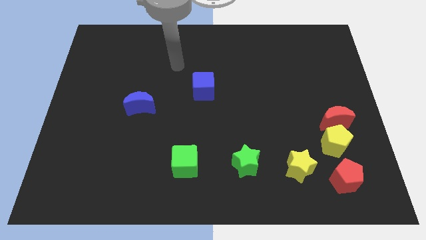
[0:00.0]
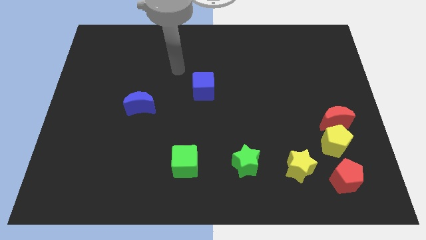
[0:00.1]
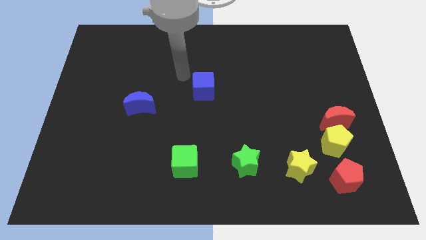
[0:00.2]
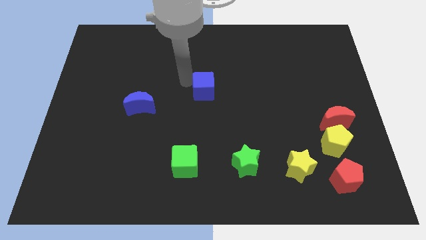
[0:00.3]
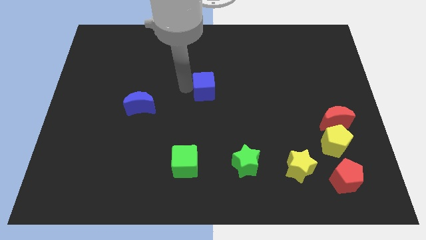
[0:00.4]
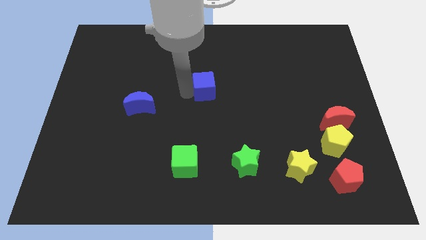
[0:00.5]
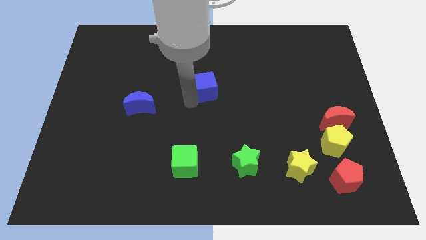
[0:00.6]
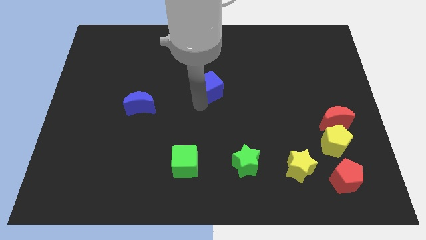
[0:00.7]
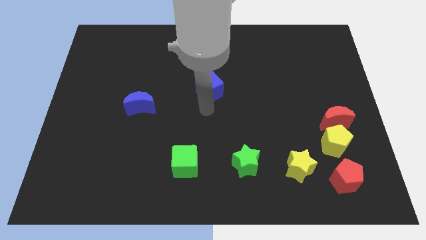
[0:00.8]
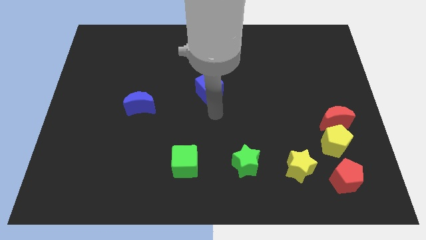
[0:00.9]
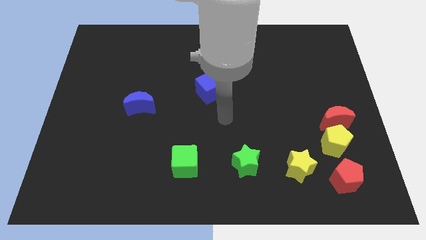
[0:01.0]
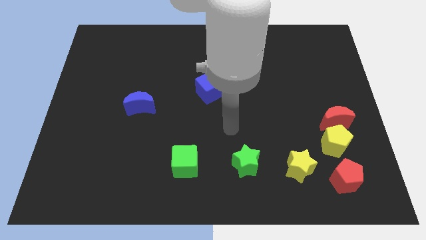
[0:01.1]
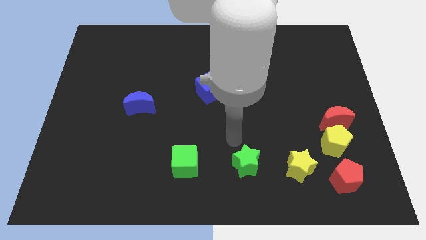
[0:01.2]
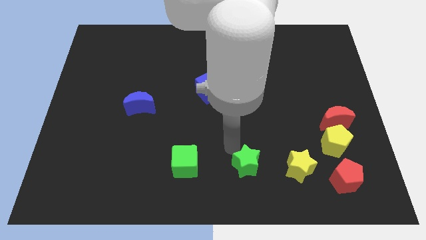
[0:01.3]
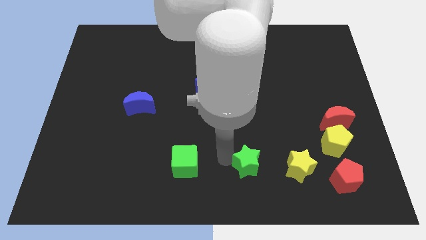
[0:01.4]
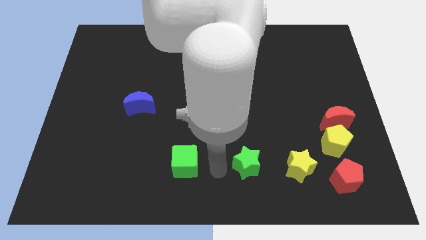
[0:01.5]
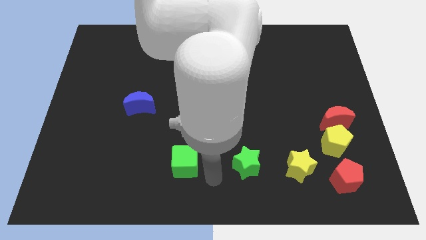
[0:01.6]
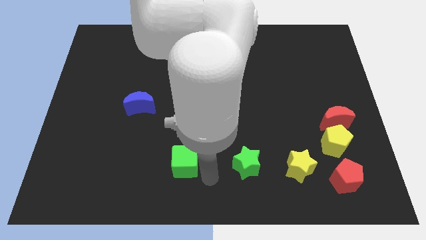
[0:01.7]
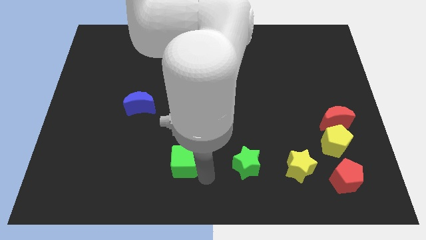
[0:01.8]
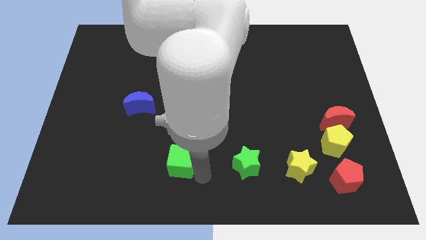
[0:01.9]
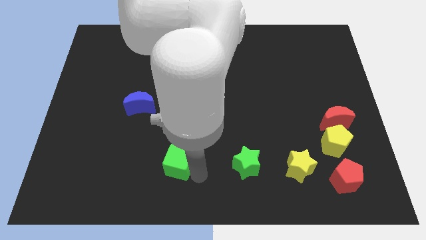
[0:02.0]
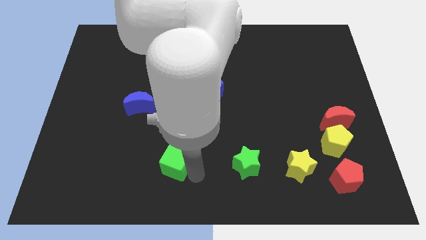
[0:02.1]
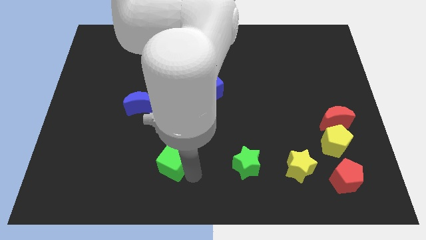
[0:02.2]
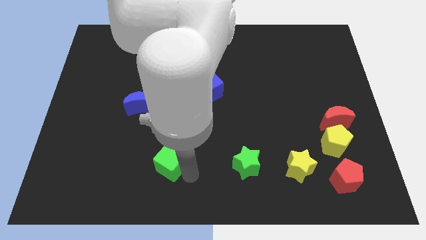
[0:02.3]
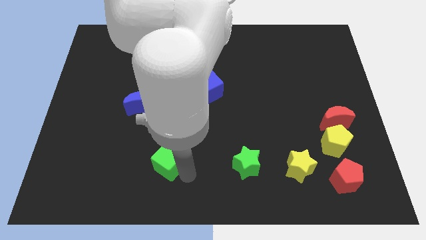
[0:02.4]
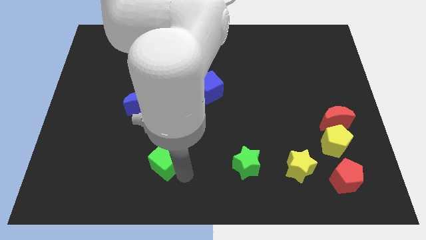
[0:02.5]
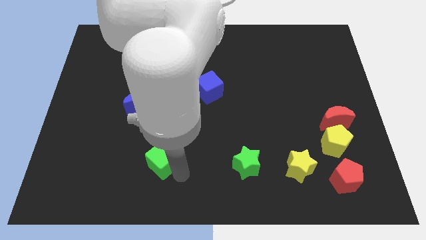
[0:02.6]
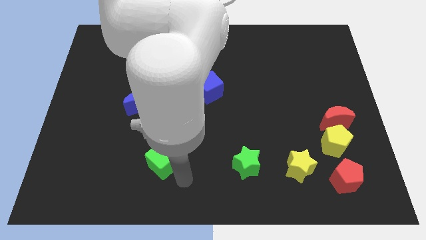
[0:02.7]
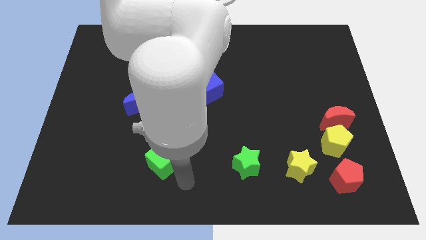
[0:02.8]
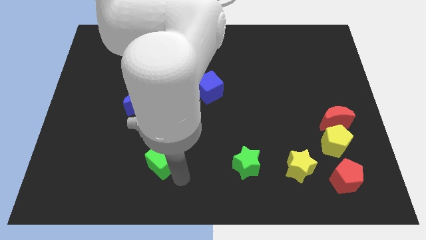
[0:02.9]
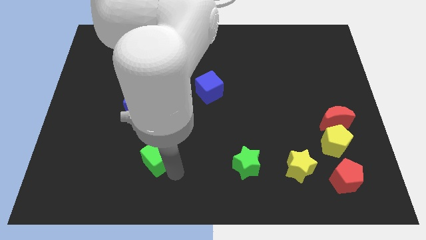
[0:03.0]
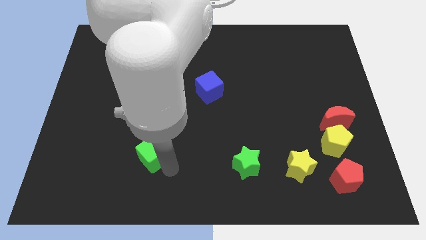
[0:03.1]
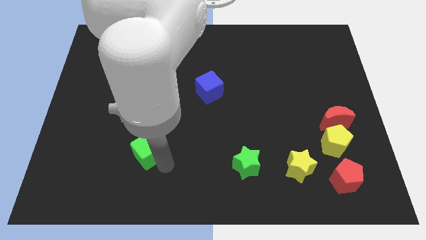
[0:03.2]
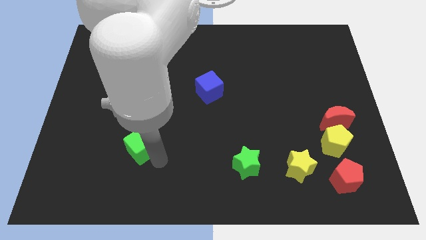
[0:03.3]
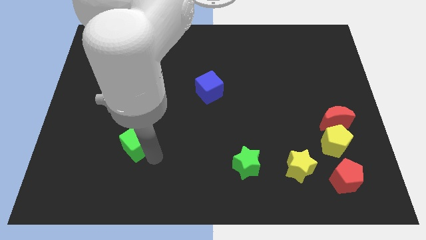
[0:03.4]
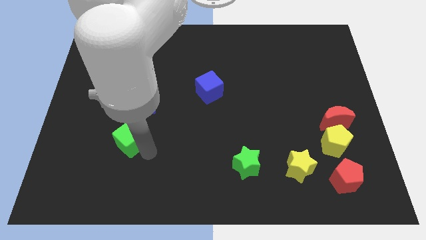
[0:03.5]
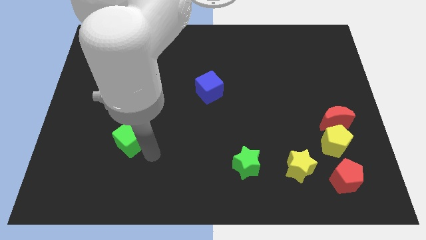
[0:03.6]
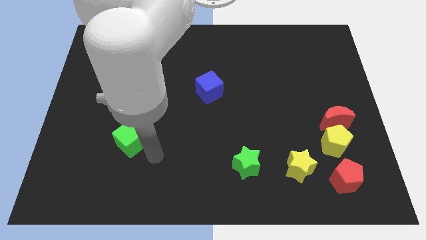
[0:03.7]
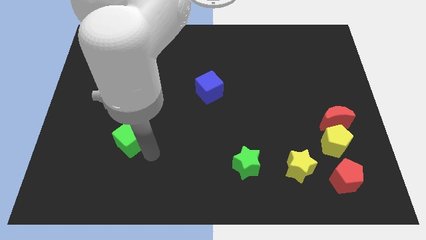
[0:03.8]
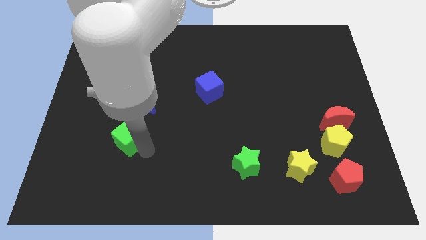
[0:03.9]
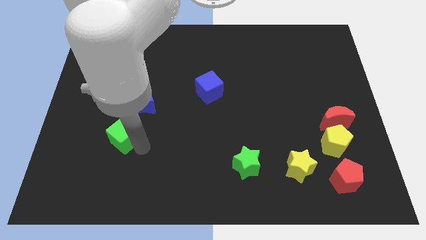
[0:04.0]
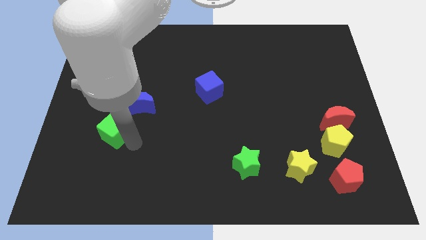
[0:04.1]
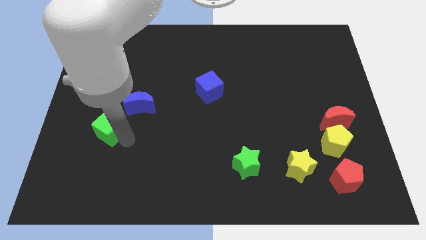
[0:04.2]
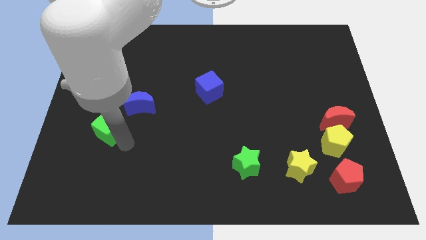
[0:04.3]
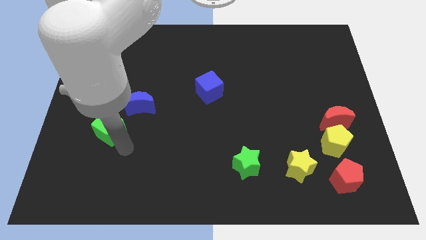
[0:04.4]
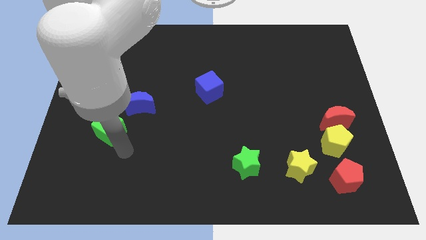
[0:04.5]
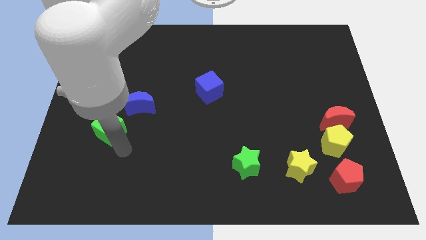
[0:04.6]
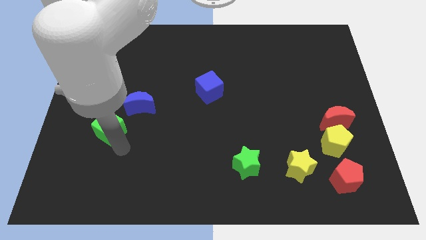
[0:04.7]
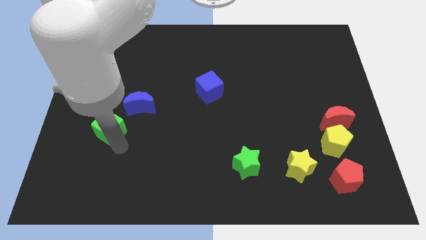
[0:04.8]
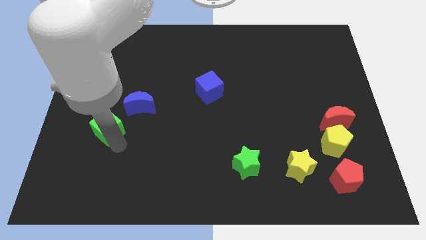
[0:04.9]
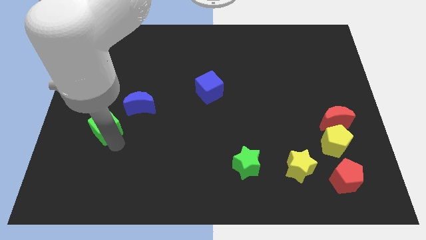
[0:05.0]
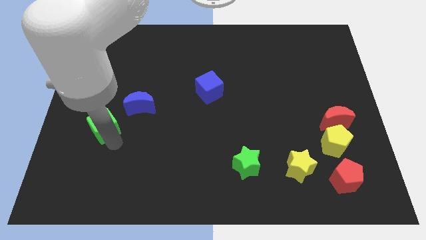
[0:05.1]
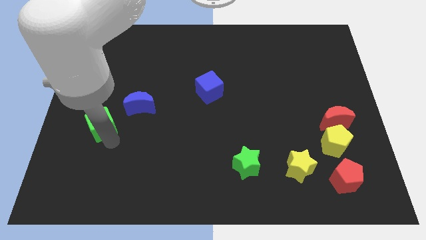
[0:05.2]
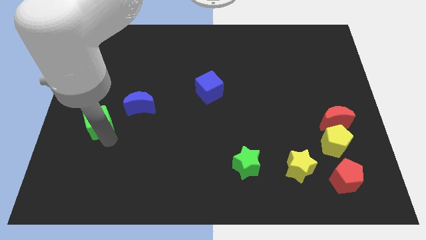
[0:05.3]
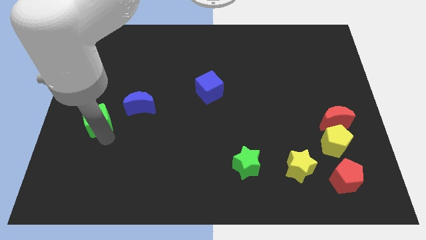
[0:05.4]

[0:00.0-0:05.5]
put the green cube just left of the blue moon

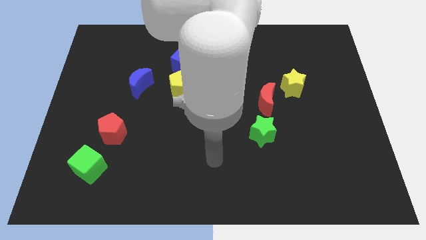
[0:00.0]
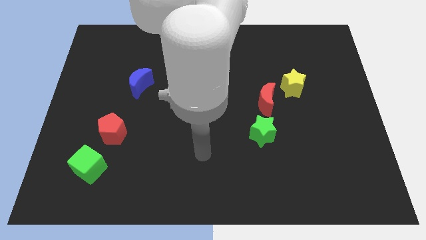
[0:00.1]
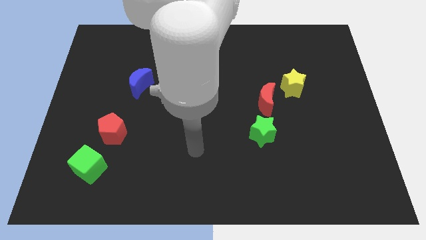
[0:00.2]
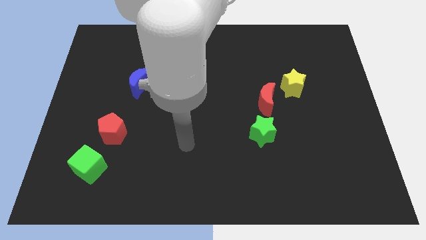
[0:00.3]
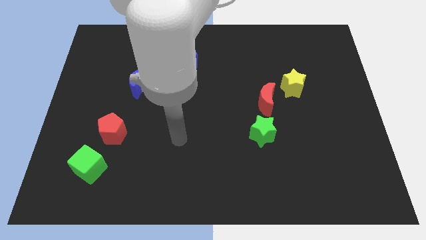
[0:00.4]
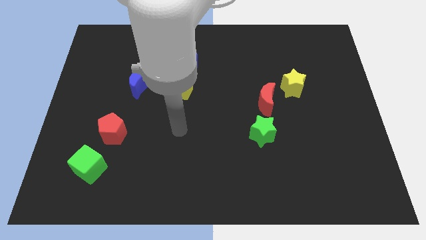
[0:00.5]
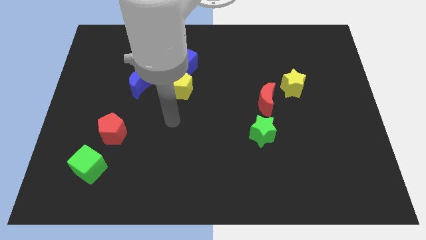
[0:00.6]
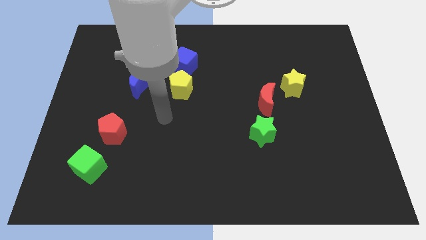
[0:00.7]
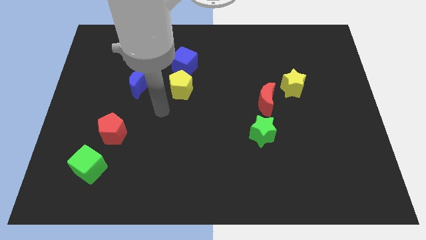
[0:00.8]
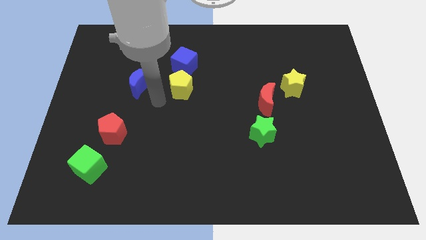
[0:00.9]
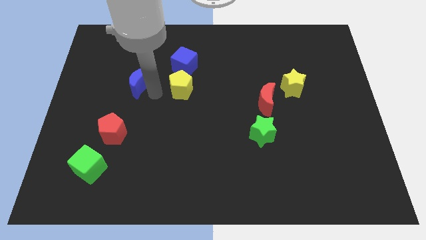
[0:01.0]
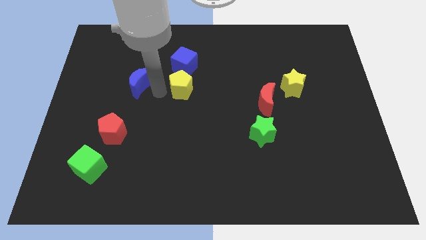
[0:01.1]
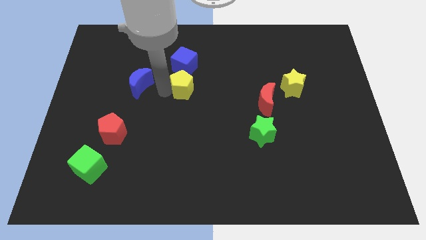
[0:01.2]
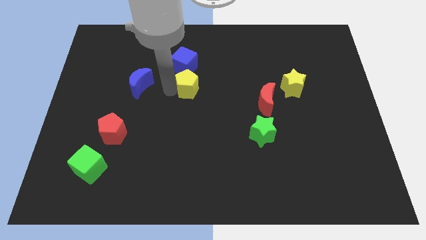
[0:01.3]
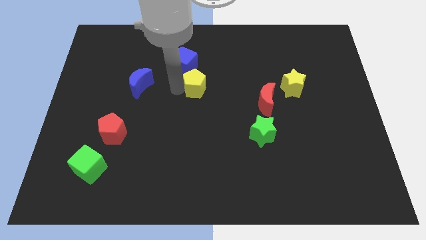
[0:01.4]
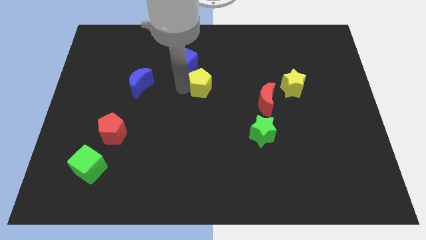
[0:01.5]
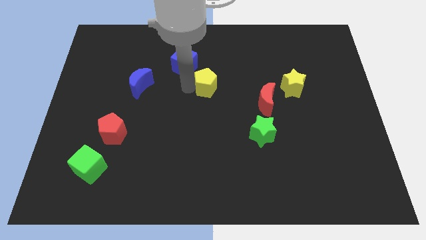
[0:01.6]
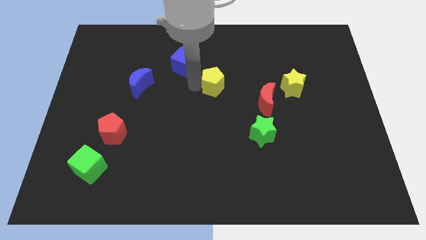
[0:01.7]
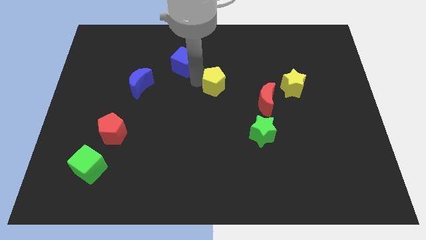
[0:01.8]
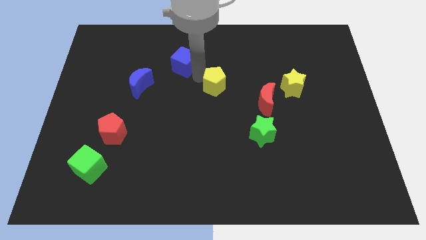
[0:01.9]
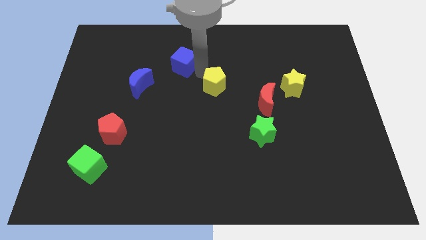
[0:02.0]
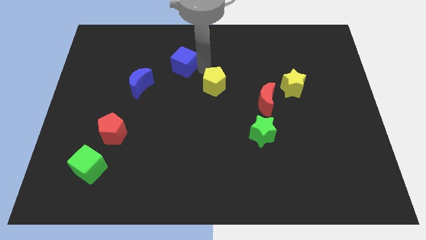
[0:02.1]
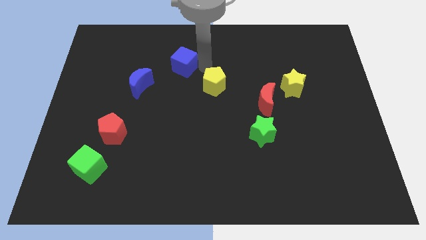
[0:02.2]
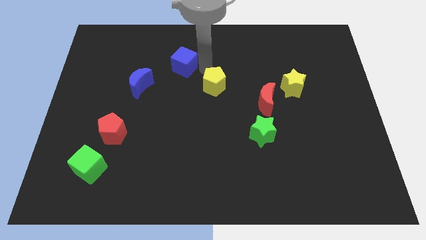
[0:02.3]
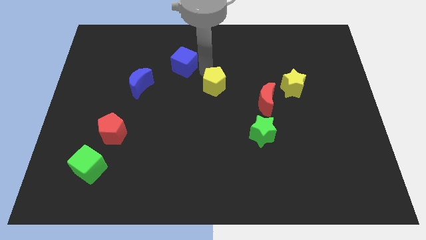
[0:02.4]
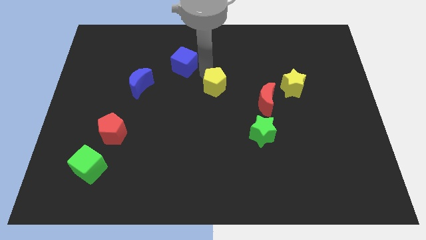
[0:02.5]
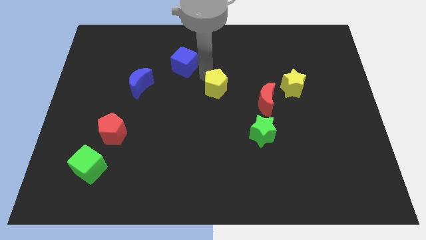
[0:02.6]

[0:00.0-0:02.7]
slide the yellow pentagon just left of the red moon
